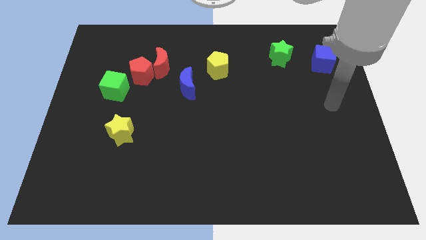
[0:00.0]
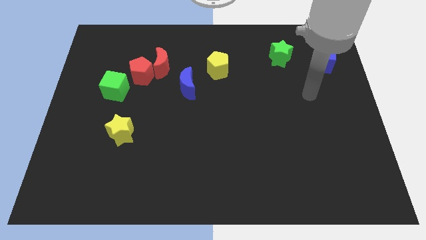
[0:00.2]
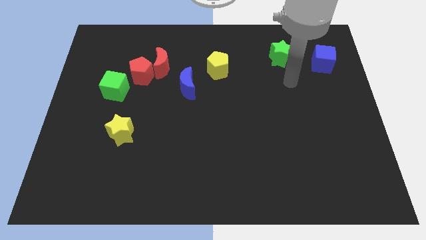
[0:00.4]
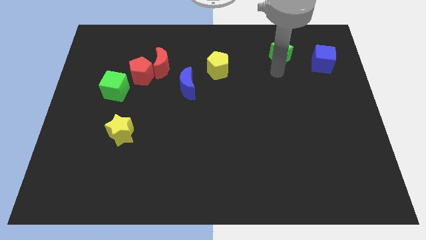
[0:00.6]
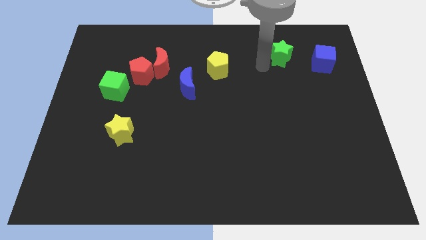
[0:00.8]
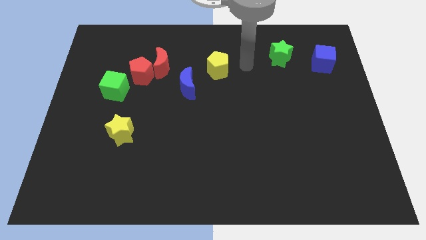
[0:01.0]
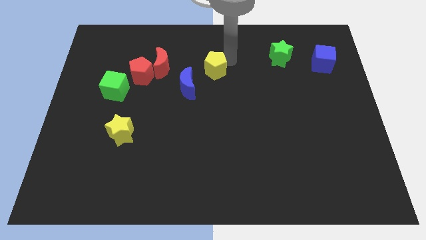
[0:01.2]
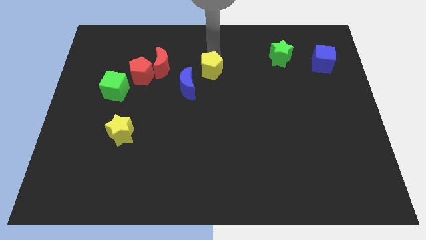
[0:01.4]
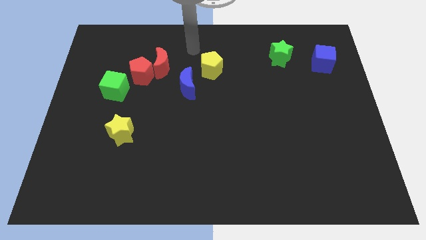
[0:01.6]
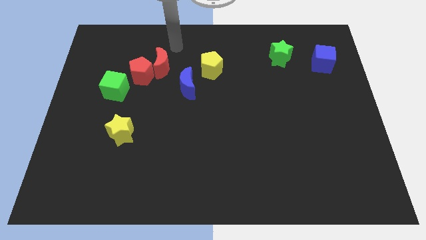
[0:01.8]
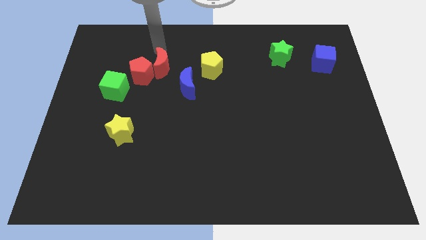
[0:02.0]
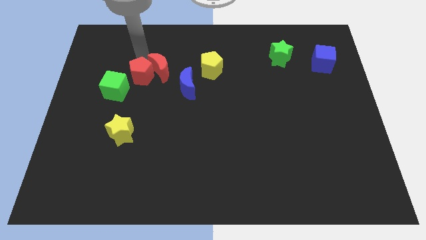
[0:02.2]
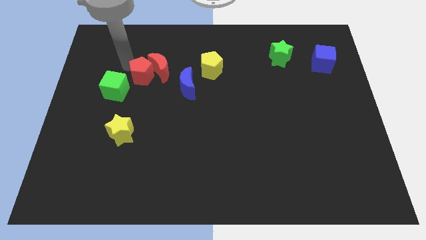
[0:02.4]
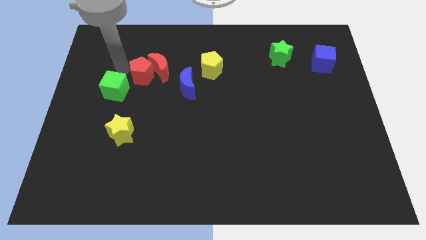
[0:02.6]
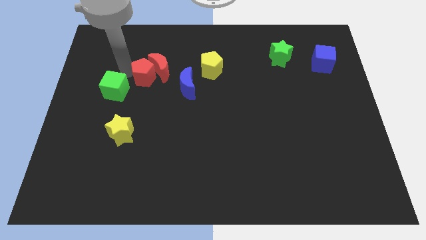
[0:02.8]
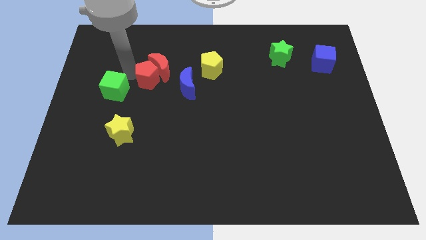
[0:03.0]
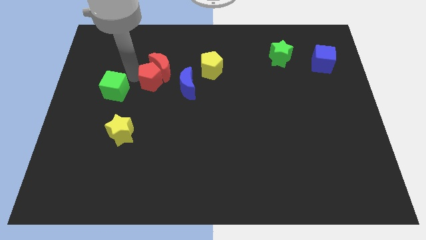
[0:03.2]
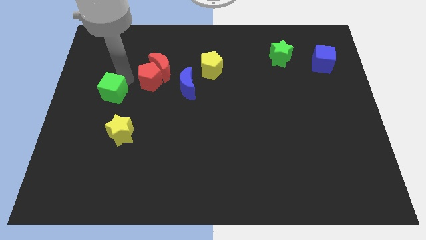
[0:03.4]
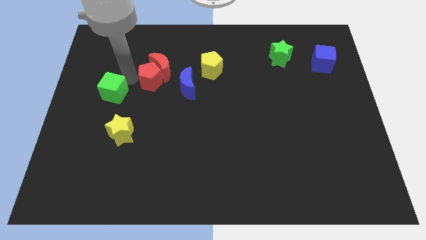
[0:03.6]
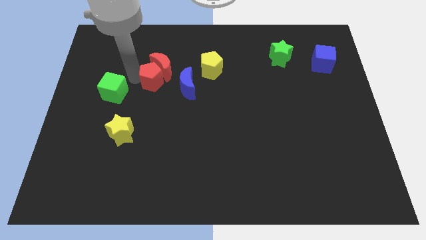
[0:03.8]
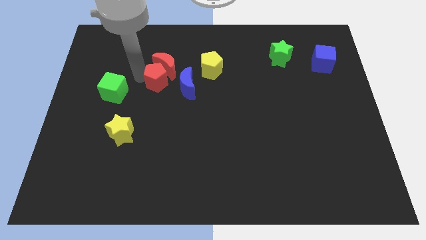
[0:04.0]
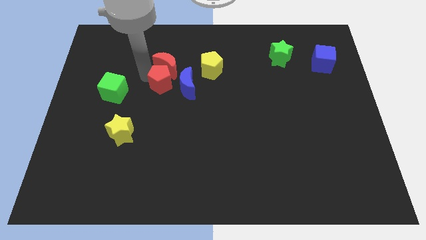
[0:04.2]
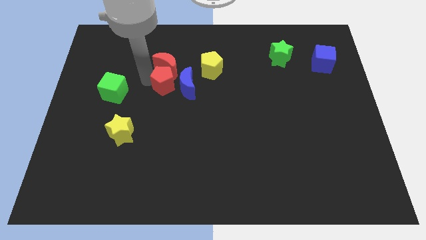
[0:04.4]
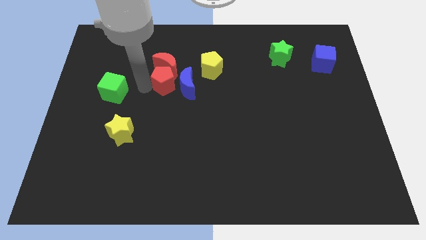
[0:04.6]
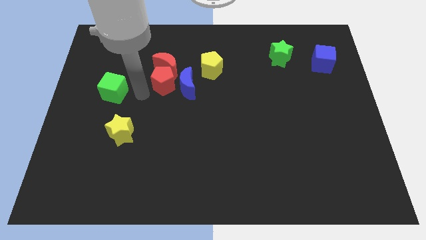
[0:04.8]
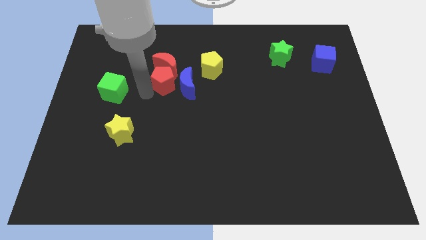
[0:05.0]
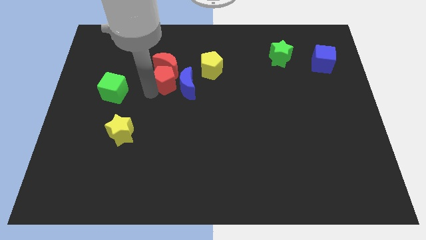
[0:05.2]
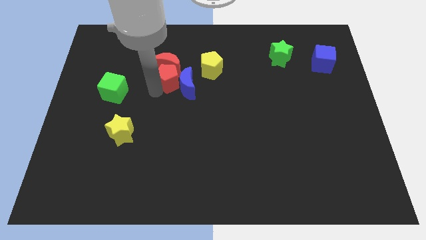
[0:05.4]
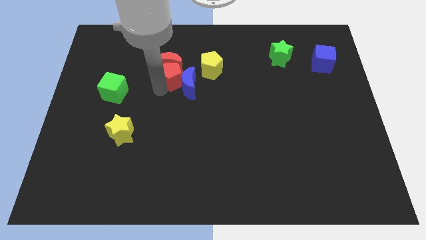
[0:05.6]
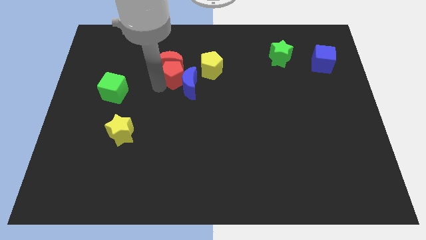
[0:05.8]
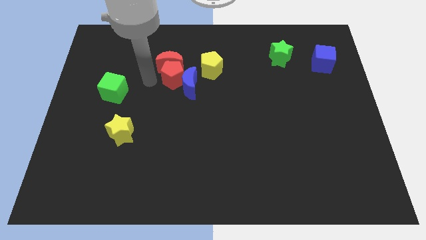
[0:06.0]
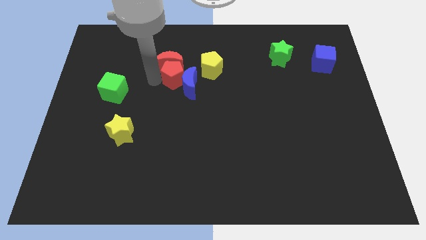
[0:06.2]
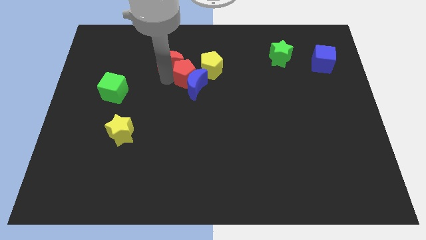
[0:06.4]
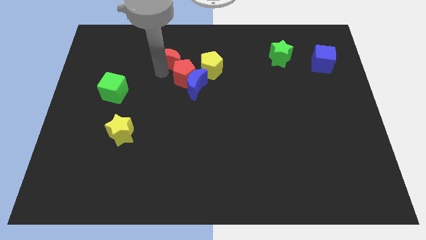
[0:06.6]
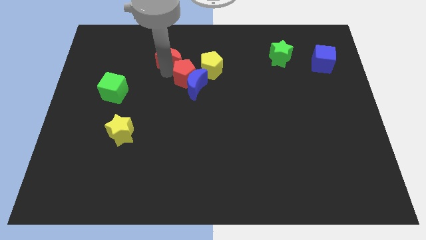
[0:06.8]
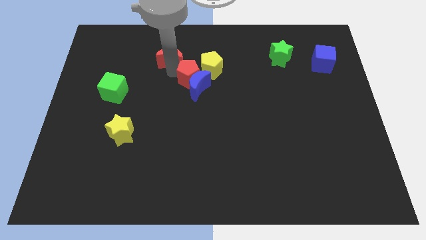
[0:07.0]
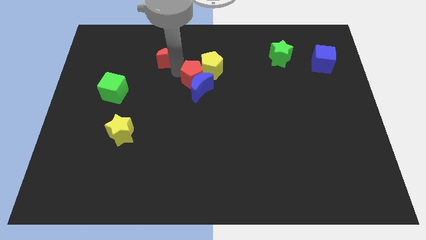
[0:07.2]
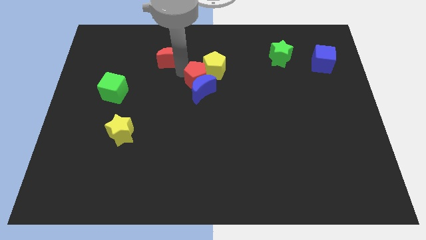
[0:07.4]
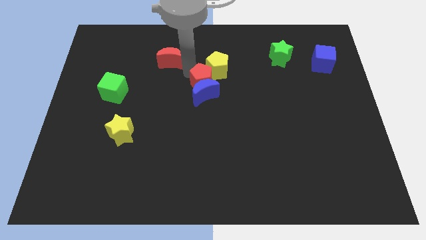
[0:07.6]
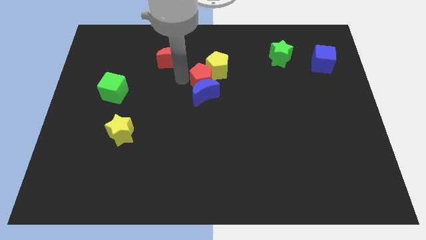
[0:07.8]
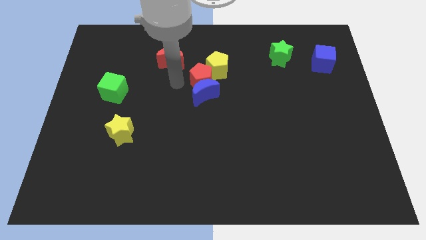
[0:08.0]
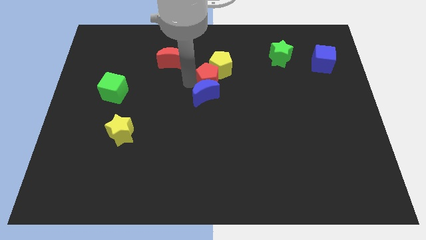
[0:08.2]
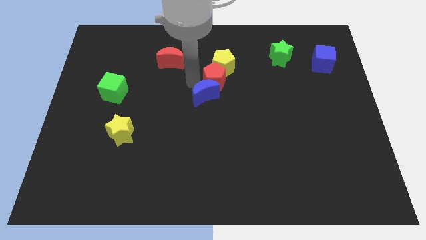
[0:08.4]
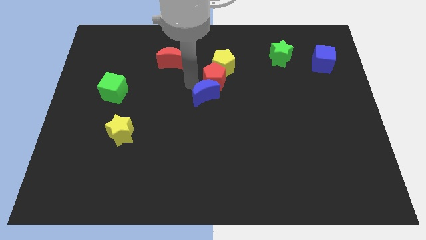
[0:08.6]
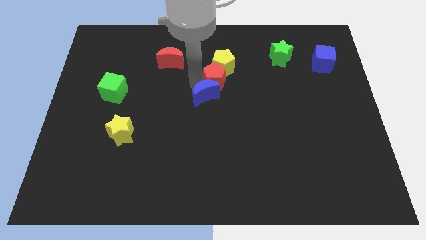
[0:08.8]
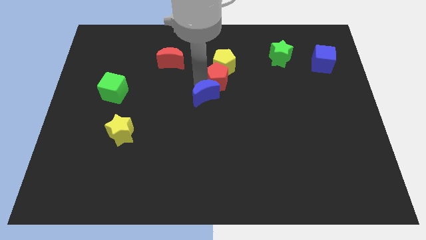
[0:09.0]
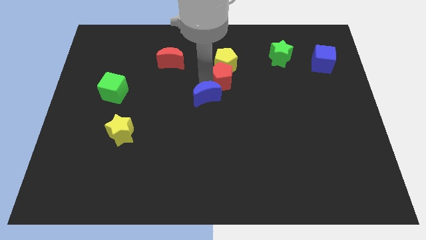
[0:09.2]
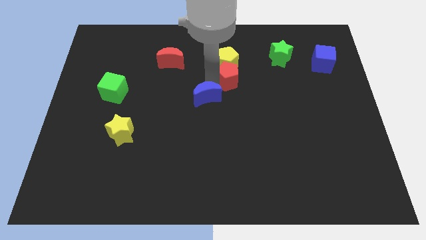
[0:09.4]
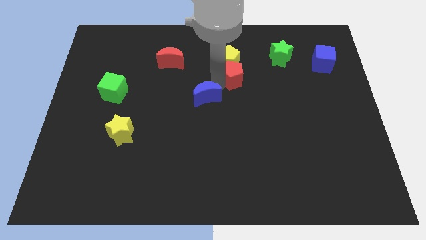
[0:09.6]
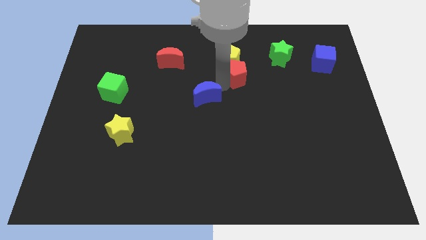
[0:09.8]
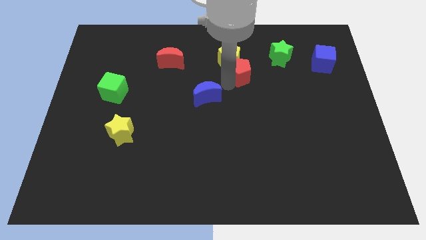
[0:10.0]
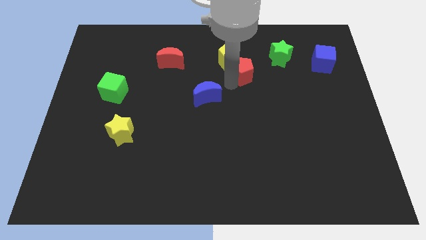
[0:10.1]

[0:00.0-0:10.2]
move the red pentagon to the bottom left side of the green star

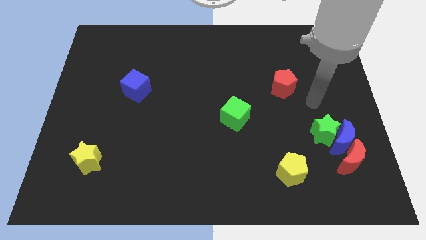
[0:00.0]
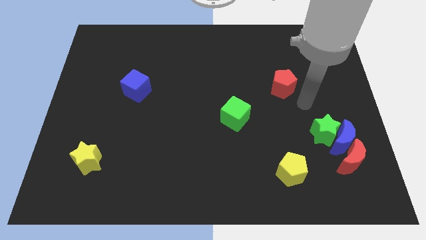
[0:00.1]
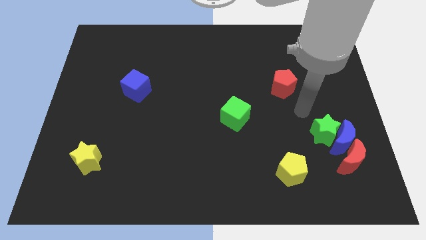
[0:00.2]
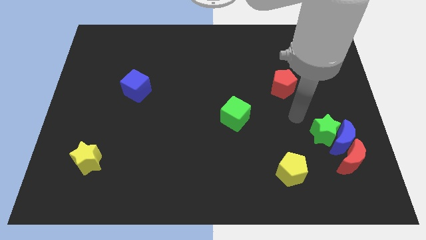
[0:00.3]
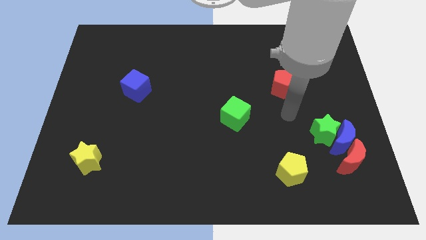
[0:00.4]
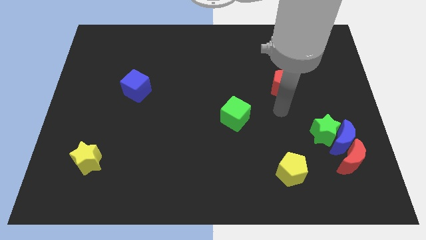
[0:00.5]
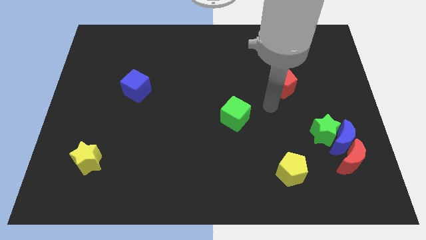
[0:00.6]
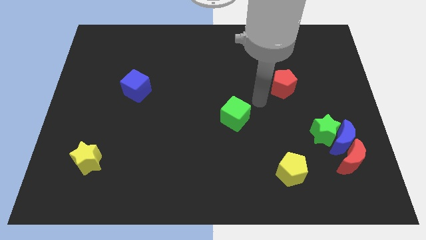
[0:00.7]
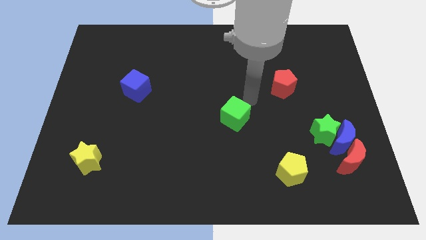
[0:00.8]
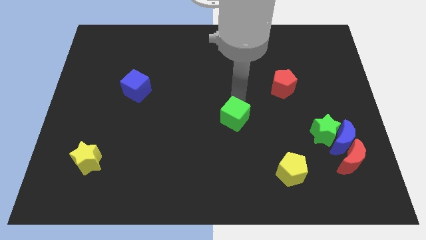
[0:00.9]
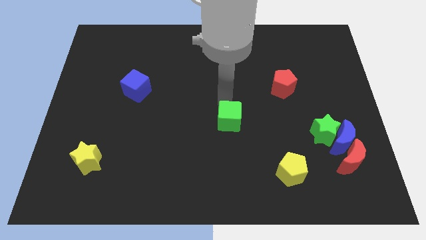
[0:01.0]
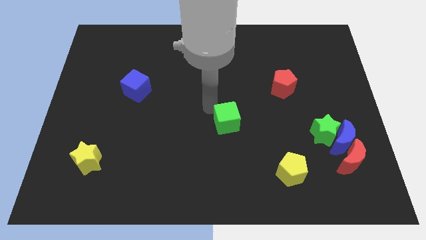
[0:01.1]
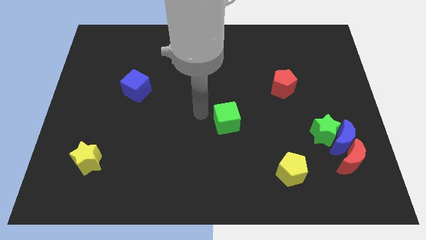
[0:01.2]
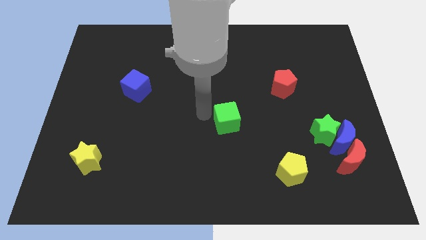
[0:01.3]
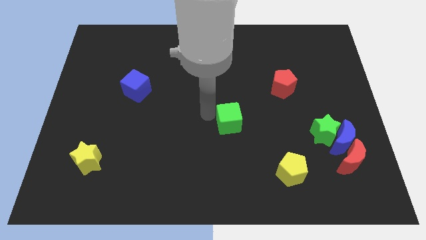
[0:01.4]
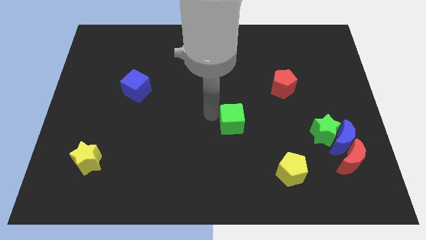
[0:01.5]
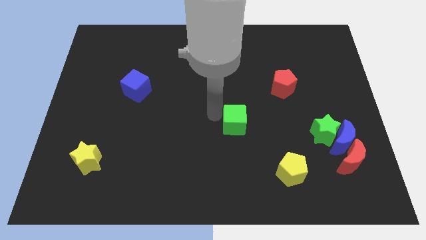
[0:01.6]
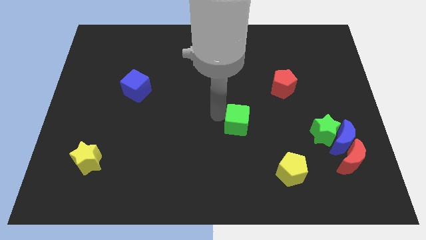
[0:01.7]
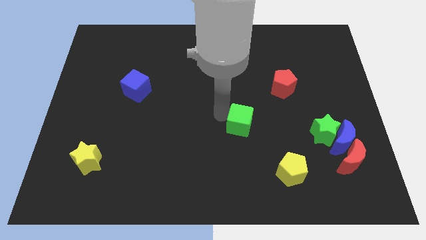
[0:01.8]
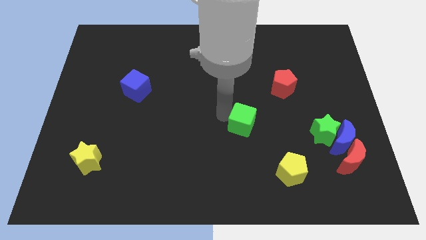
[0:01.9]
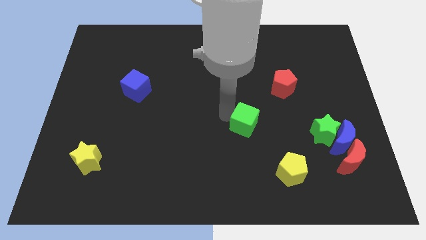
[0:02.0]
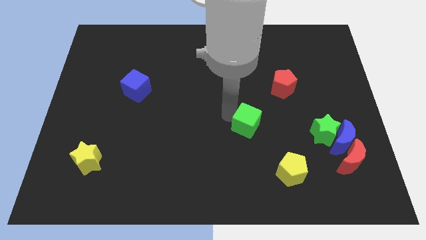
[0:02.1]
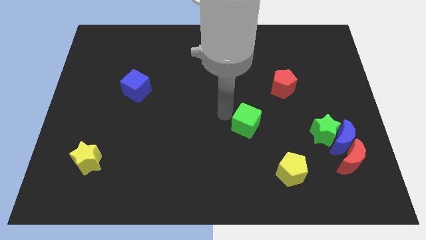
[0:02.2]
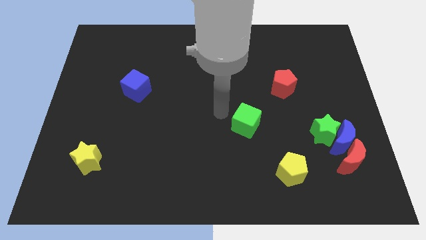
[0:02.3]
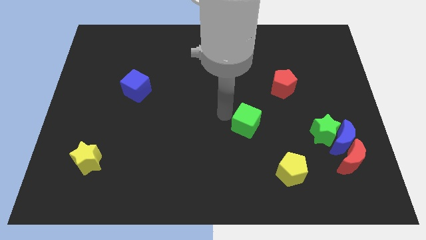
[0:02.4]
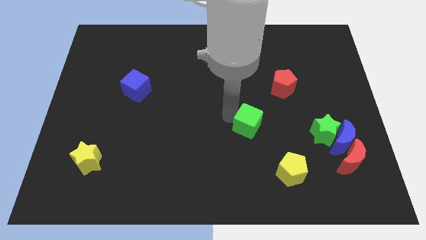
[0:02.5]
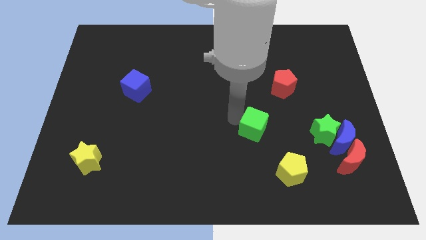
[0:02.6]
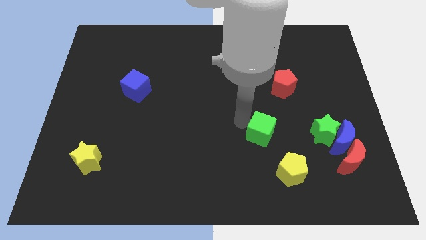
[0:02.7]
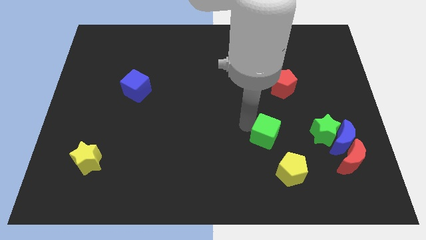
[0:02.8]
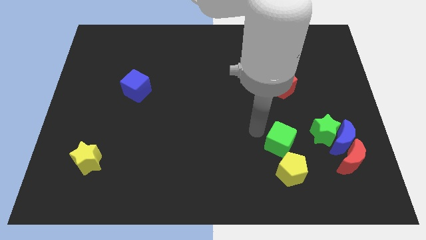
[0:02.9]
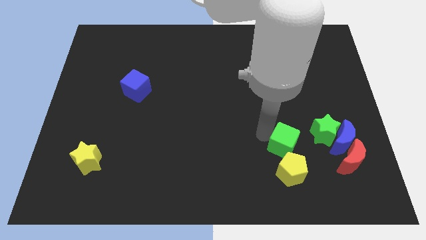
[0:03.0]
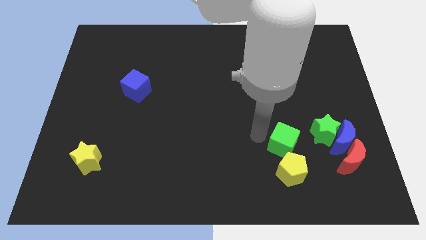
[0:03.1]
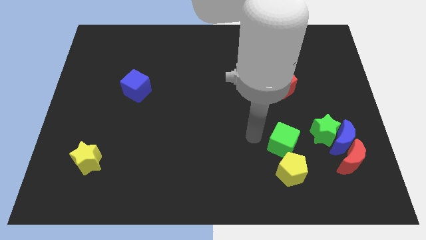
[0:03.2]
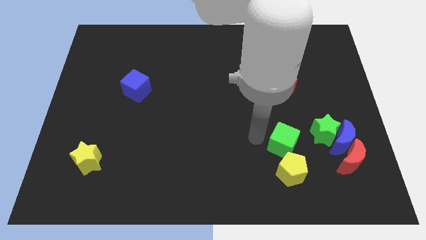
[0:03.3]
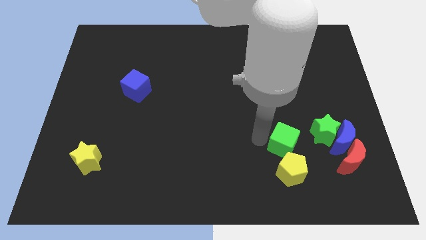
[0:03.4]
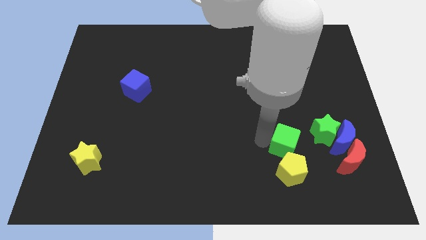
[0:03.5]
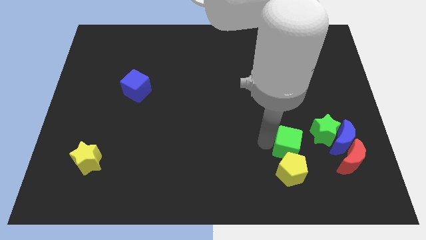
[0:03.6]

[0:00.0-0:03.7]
move the green cube to the top right of the yellow pentagon
